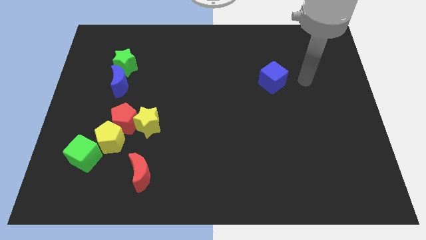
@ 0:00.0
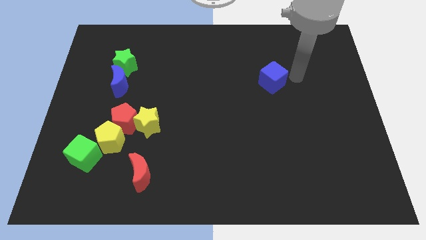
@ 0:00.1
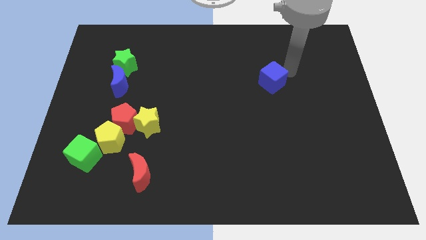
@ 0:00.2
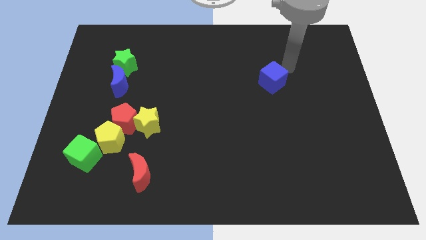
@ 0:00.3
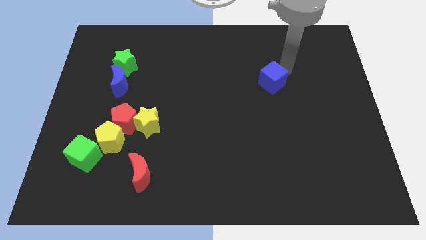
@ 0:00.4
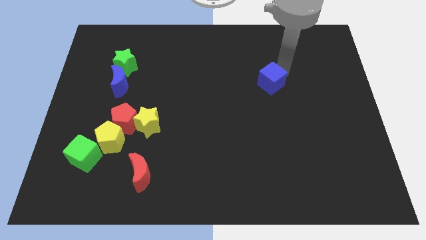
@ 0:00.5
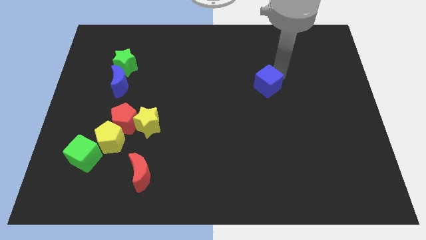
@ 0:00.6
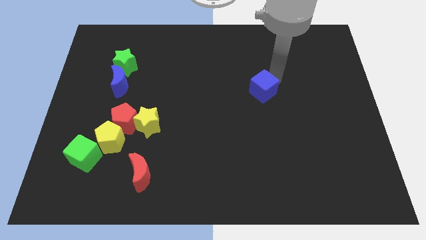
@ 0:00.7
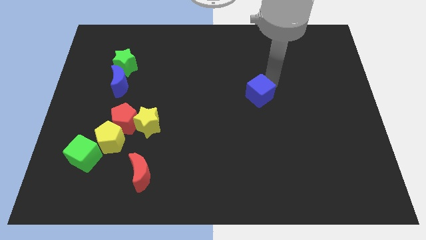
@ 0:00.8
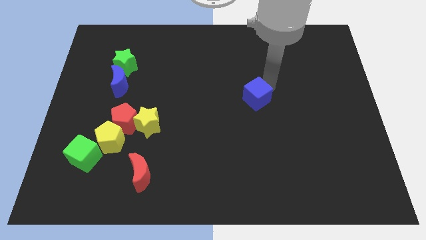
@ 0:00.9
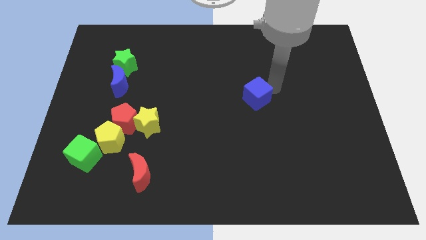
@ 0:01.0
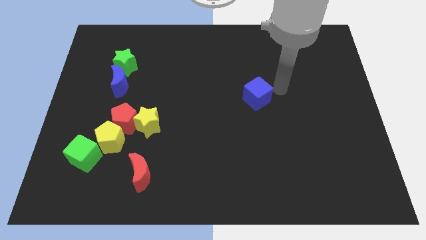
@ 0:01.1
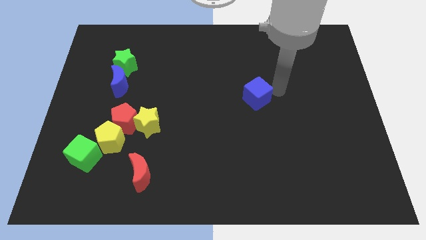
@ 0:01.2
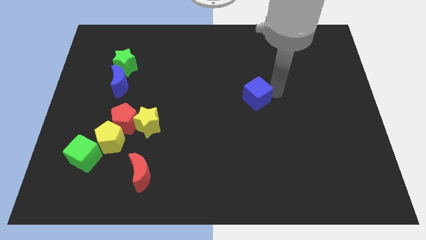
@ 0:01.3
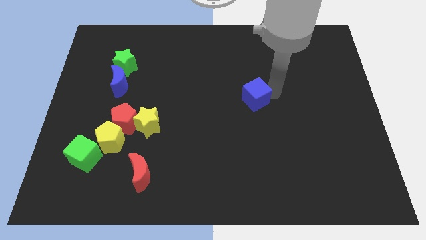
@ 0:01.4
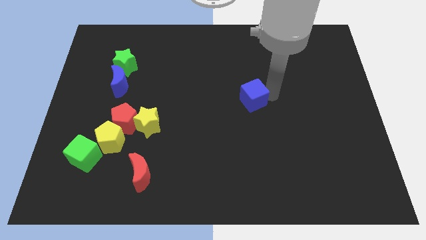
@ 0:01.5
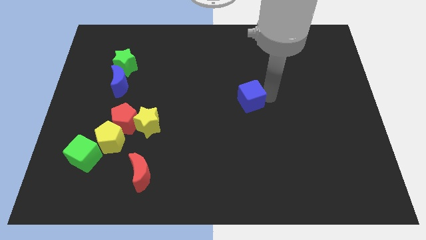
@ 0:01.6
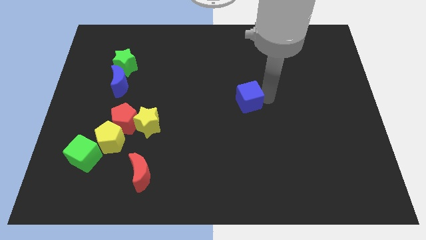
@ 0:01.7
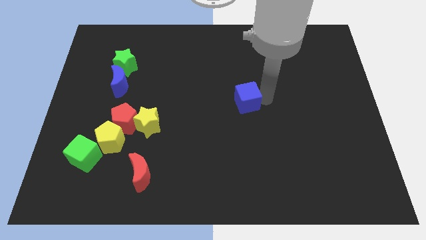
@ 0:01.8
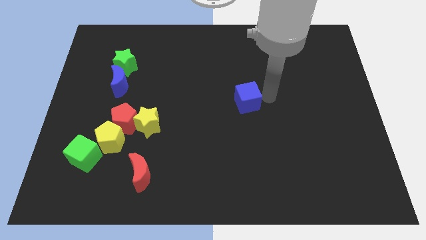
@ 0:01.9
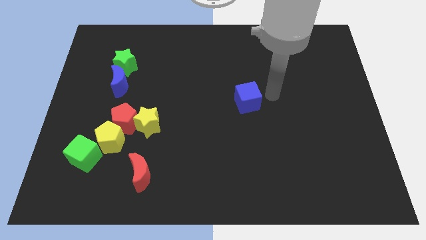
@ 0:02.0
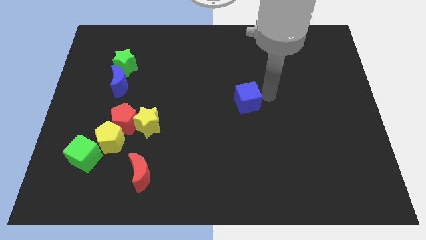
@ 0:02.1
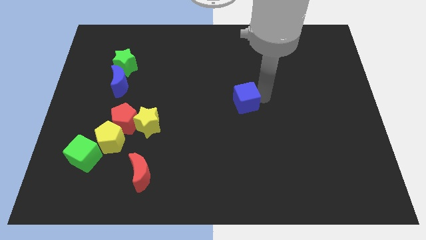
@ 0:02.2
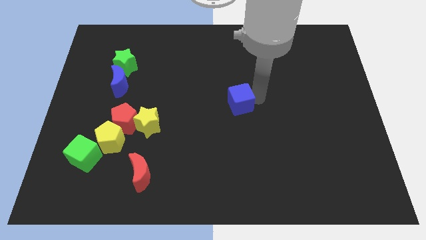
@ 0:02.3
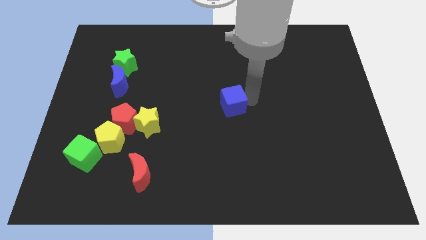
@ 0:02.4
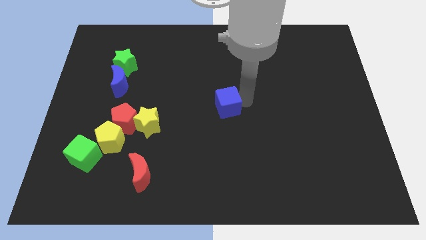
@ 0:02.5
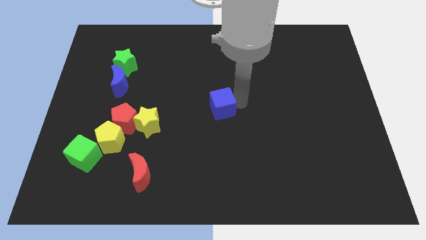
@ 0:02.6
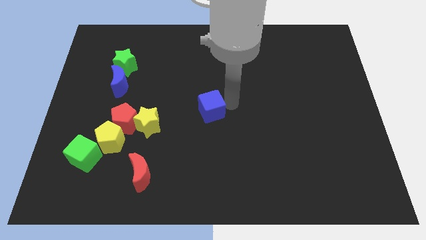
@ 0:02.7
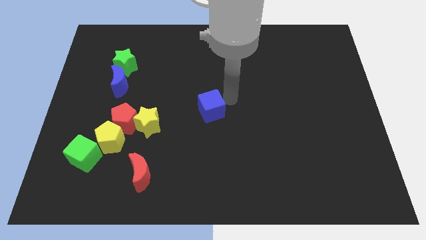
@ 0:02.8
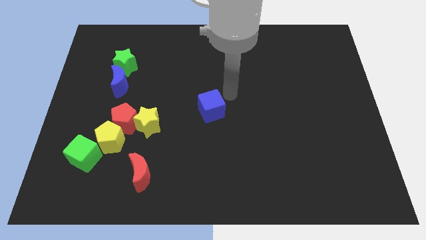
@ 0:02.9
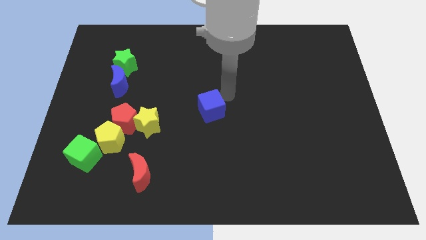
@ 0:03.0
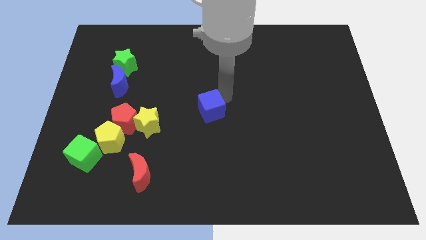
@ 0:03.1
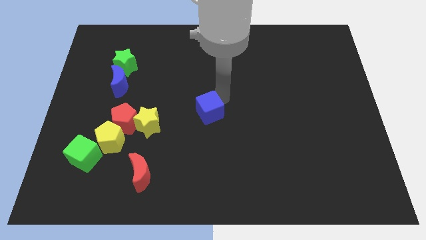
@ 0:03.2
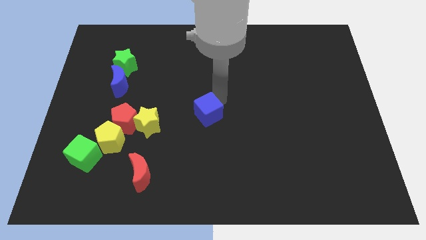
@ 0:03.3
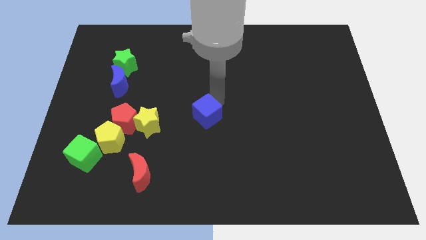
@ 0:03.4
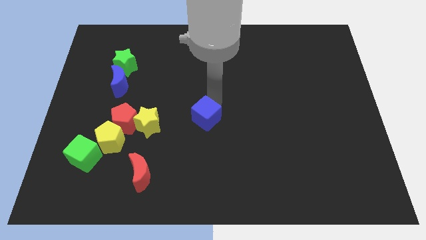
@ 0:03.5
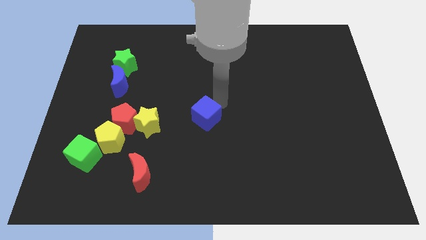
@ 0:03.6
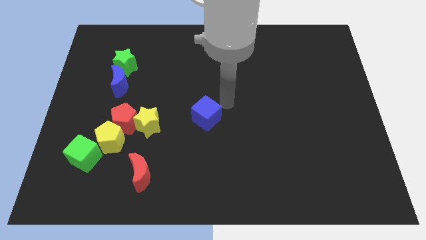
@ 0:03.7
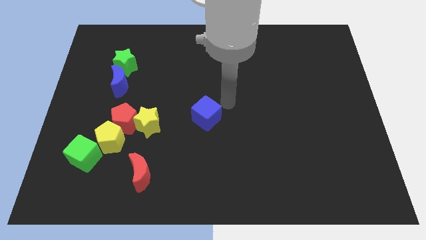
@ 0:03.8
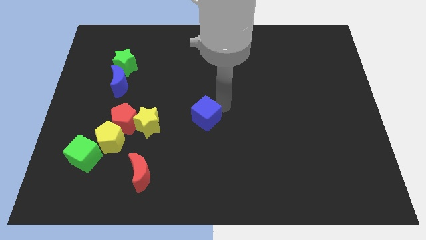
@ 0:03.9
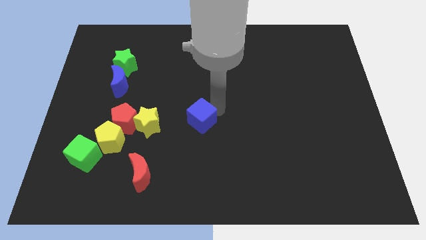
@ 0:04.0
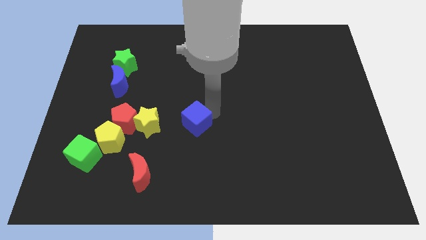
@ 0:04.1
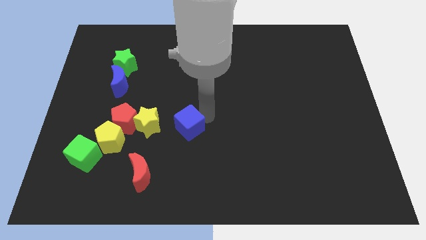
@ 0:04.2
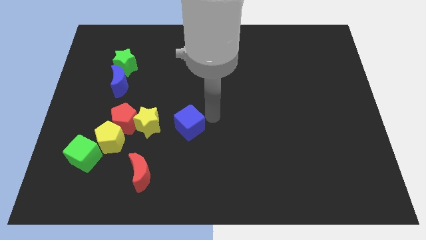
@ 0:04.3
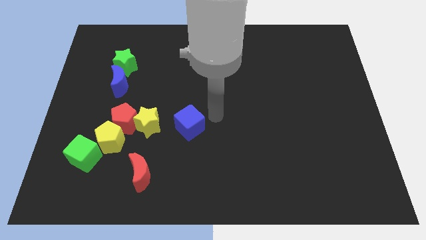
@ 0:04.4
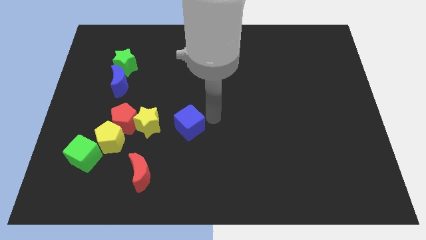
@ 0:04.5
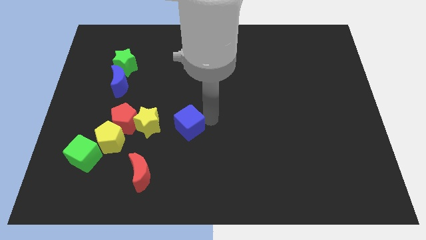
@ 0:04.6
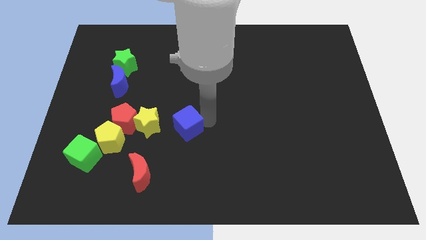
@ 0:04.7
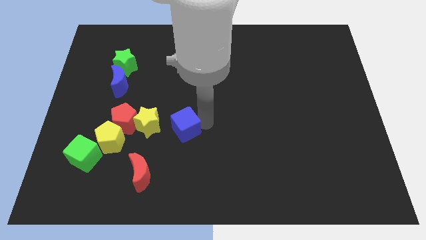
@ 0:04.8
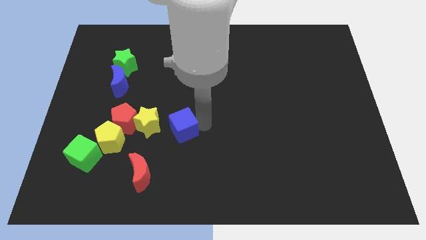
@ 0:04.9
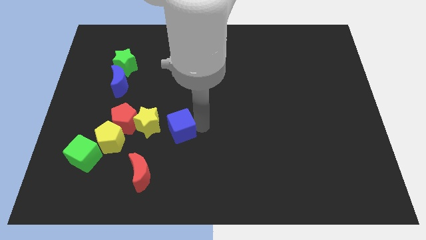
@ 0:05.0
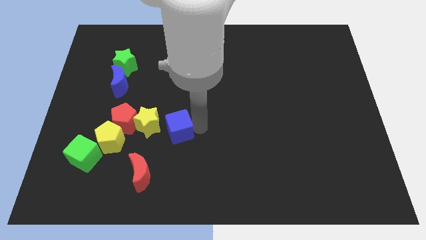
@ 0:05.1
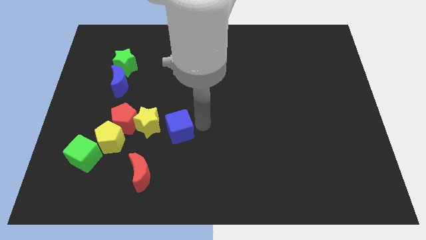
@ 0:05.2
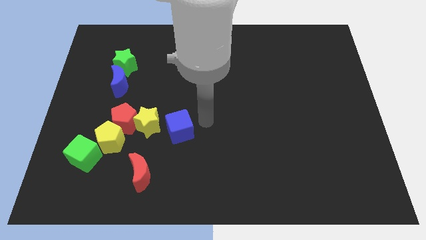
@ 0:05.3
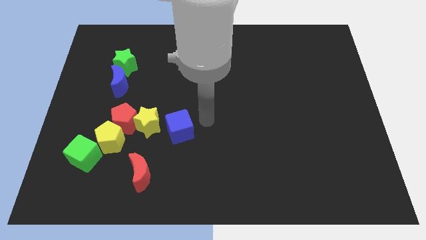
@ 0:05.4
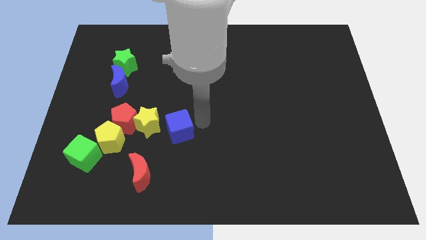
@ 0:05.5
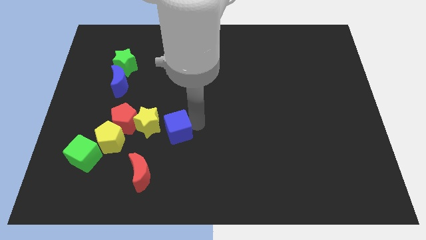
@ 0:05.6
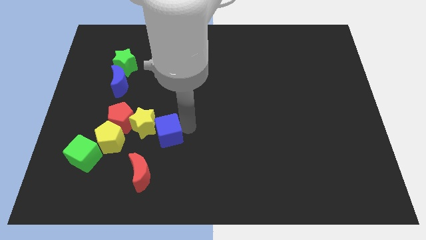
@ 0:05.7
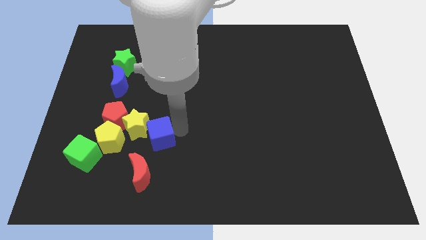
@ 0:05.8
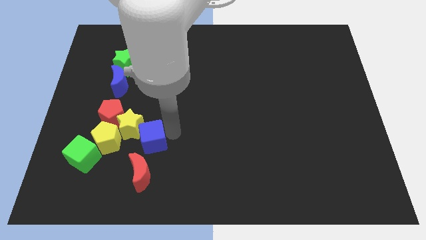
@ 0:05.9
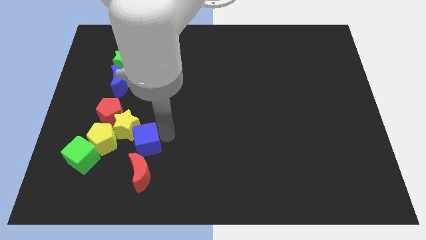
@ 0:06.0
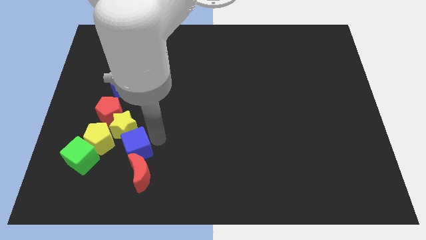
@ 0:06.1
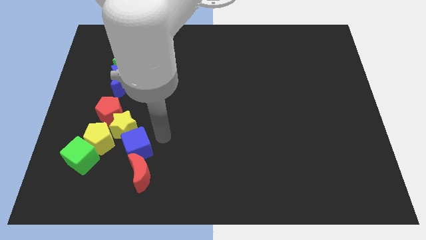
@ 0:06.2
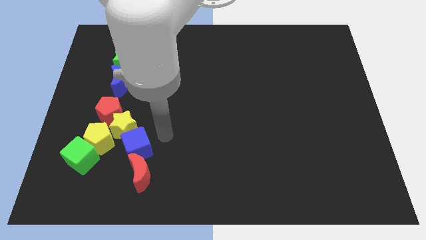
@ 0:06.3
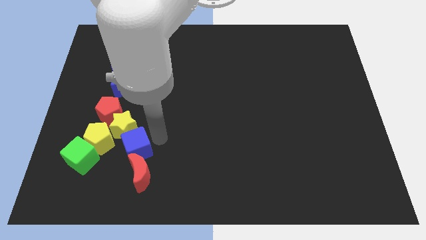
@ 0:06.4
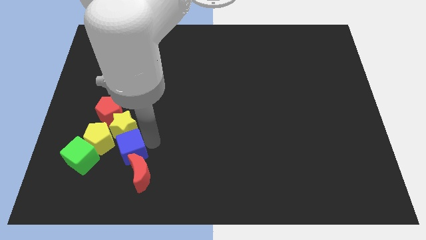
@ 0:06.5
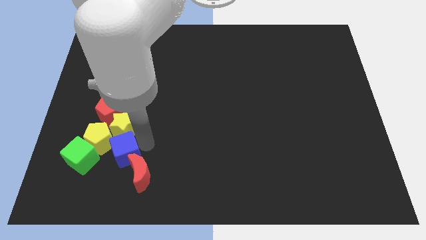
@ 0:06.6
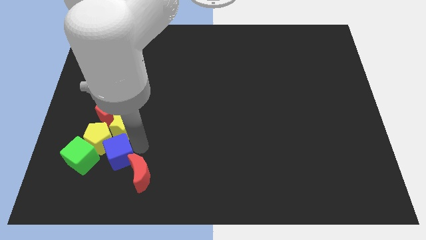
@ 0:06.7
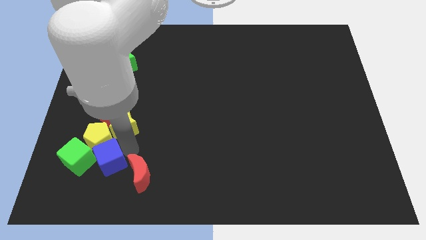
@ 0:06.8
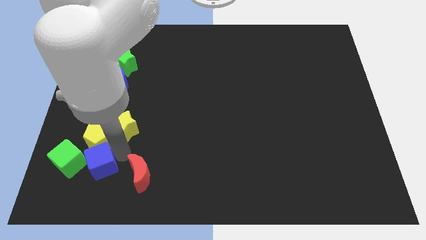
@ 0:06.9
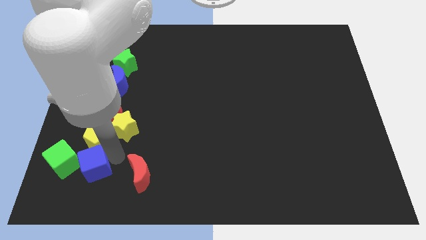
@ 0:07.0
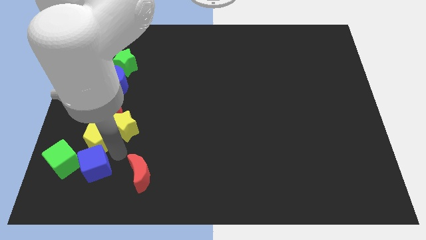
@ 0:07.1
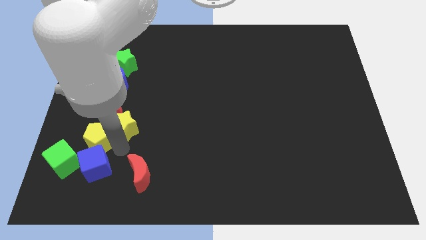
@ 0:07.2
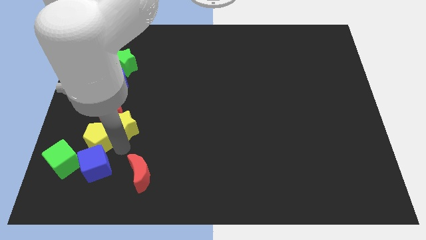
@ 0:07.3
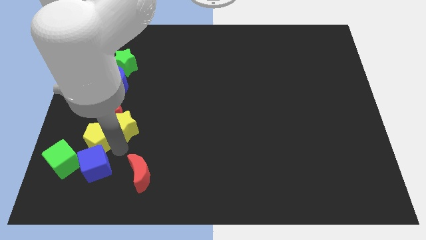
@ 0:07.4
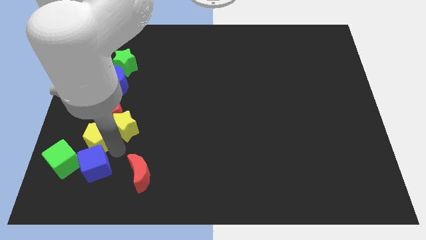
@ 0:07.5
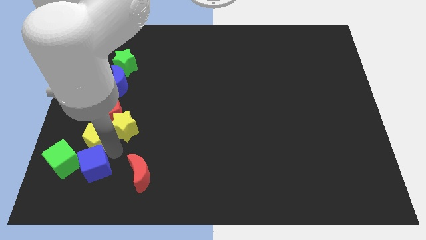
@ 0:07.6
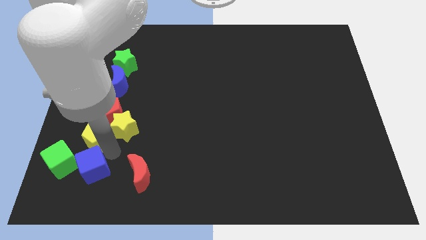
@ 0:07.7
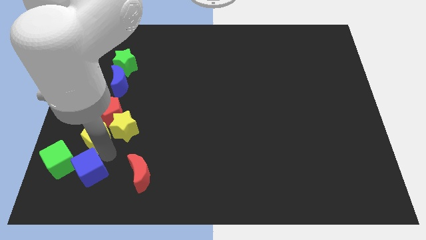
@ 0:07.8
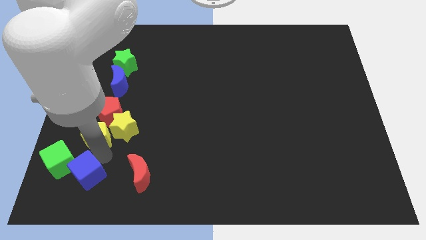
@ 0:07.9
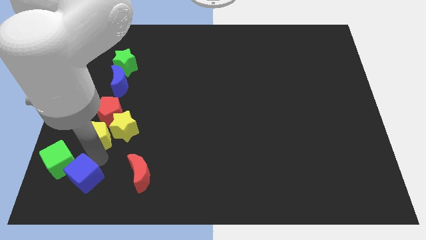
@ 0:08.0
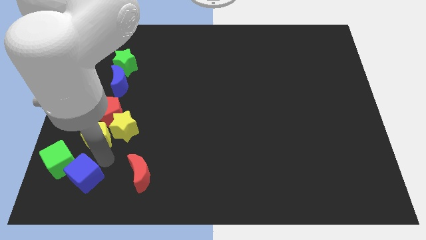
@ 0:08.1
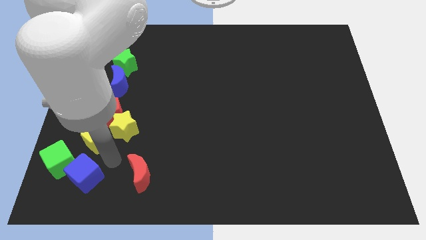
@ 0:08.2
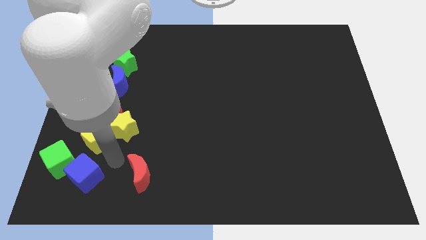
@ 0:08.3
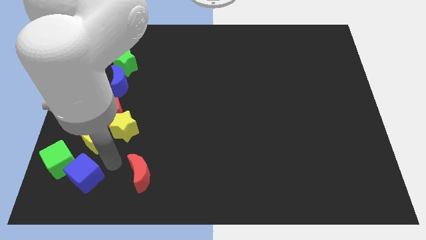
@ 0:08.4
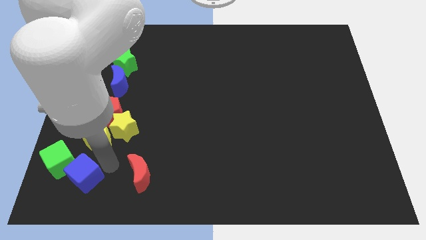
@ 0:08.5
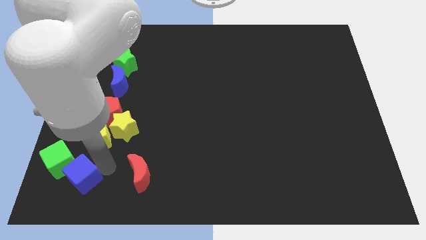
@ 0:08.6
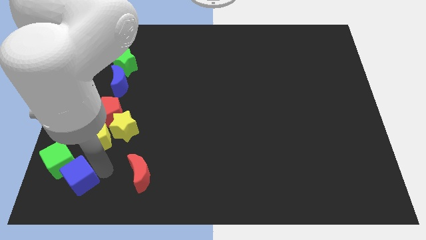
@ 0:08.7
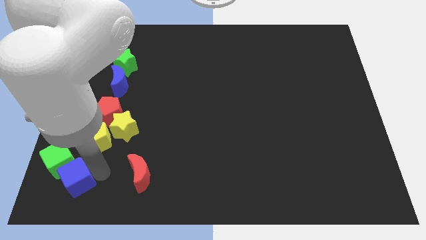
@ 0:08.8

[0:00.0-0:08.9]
slide the blue cube to the bottom left of the board
